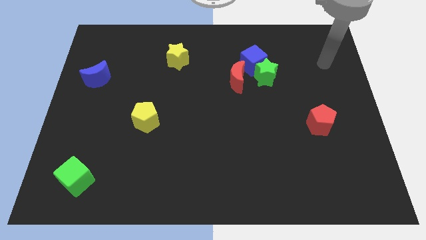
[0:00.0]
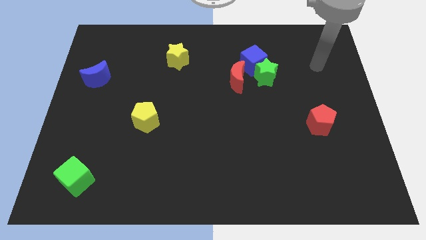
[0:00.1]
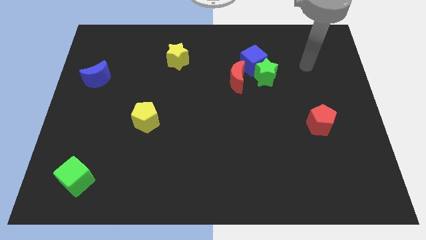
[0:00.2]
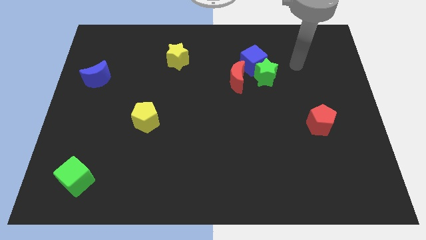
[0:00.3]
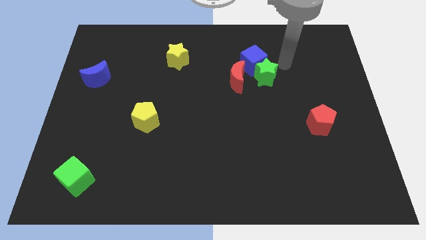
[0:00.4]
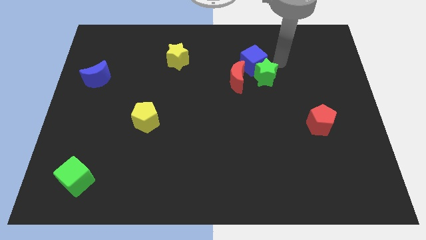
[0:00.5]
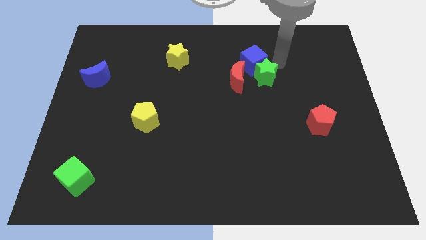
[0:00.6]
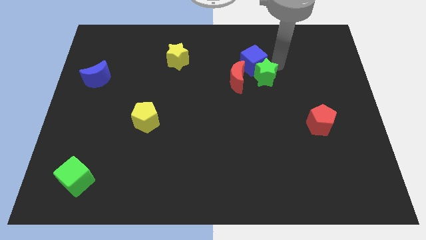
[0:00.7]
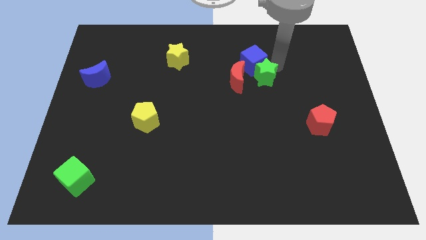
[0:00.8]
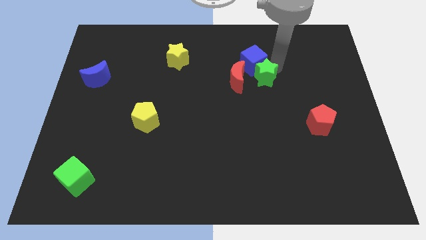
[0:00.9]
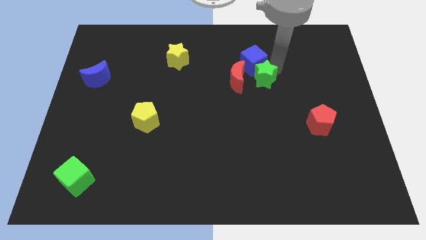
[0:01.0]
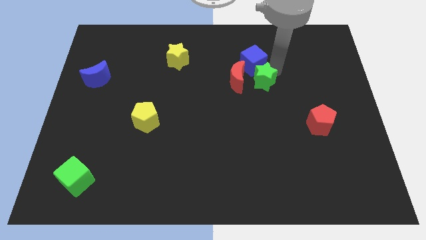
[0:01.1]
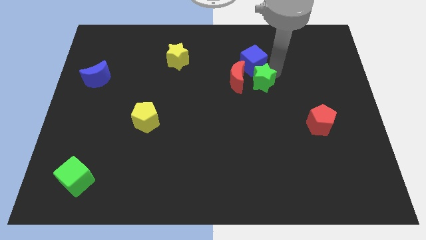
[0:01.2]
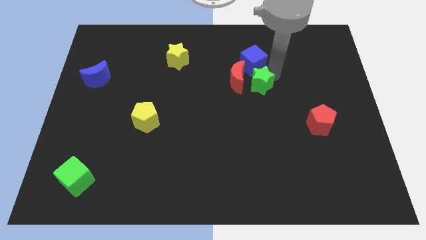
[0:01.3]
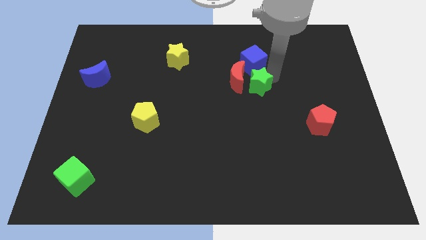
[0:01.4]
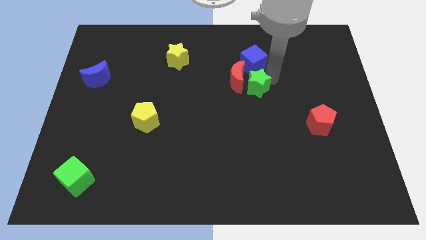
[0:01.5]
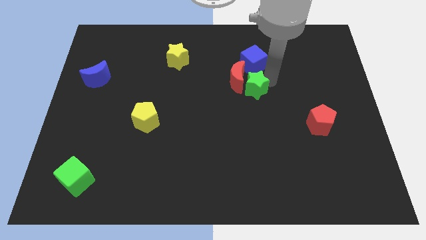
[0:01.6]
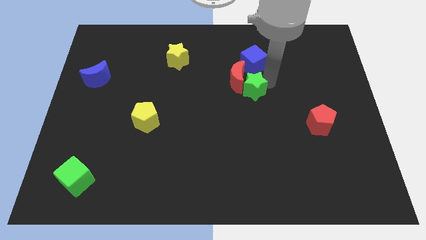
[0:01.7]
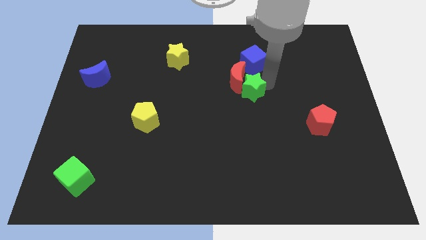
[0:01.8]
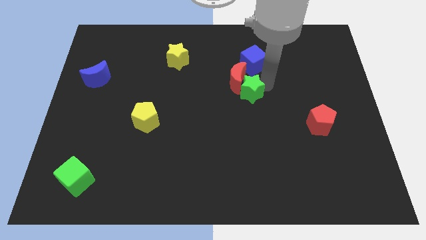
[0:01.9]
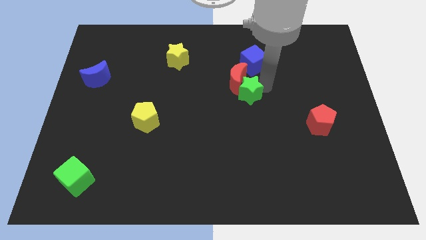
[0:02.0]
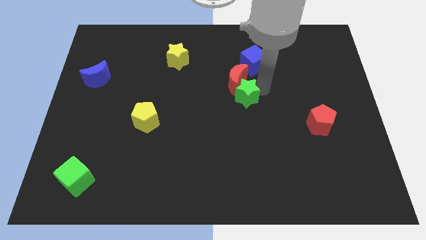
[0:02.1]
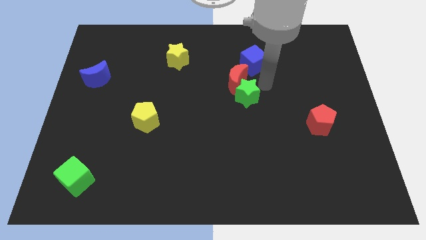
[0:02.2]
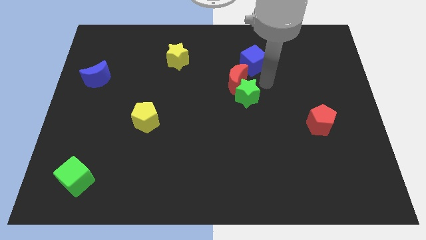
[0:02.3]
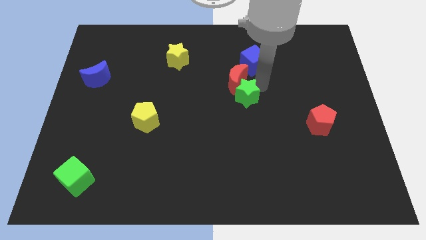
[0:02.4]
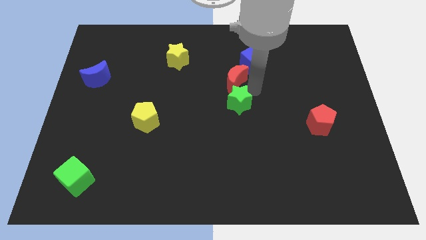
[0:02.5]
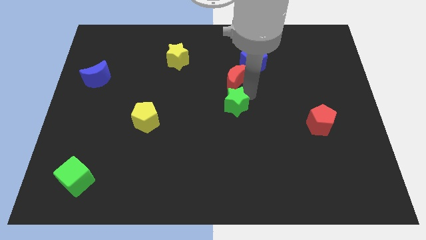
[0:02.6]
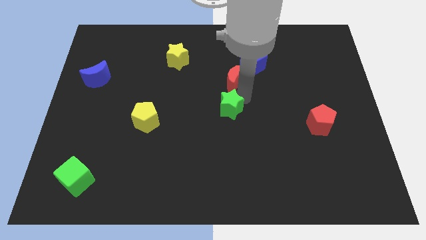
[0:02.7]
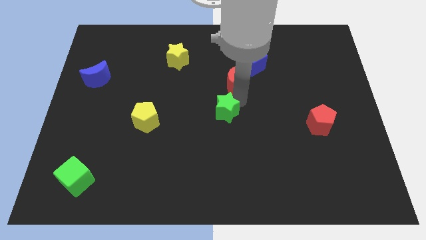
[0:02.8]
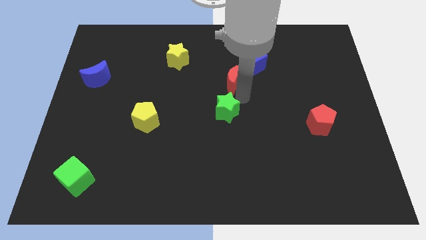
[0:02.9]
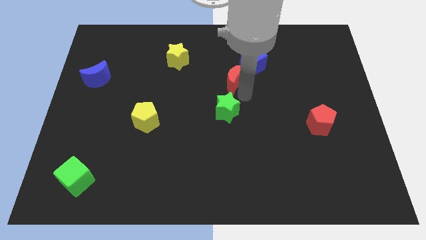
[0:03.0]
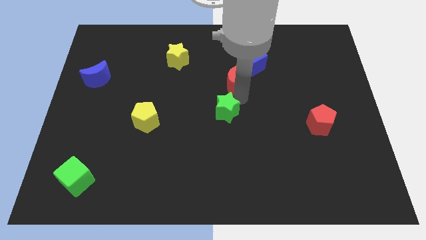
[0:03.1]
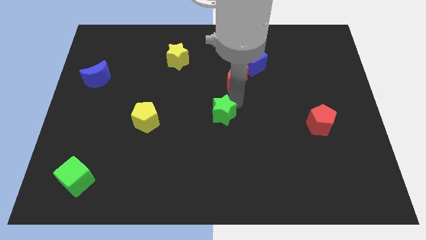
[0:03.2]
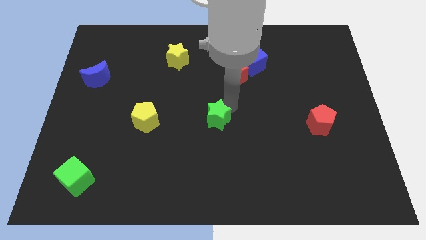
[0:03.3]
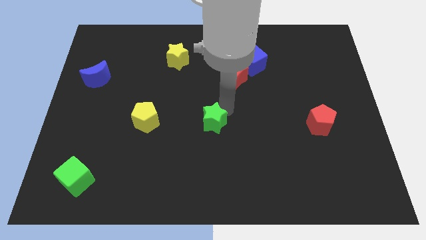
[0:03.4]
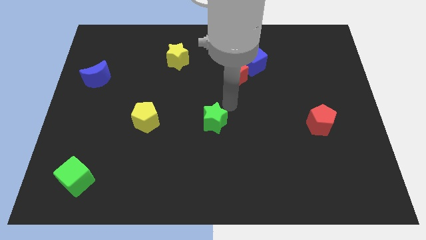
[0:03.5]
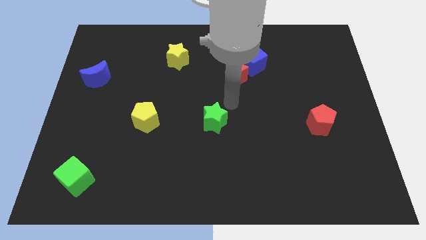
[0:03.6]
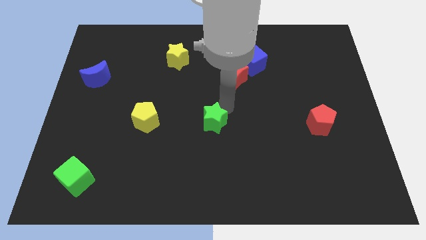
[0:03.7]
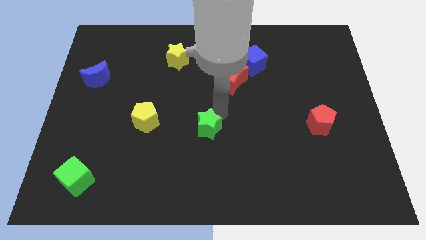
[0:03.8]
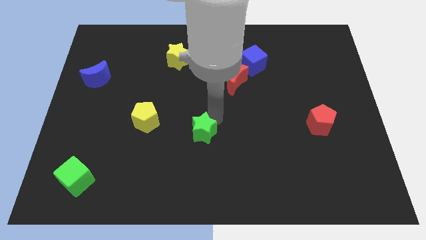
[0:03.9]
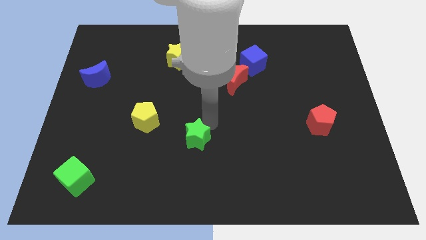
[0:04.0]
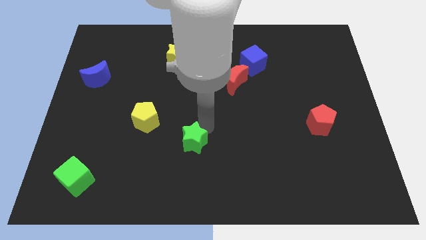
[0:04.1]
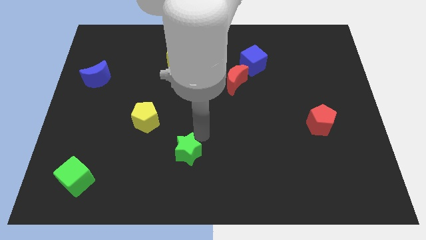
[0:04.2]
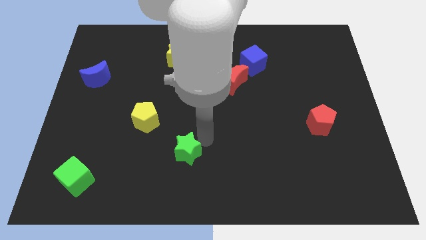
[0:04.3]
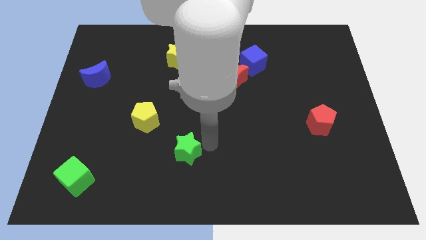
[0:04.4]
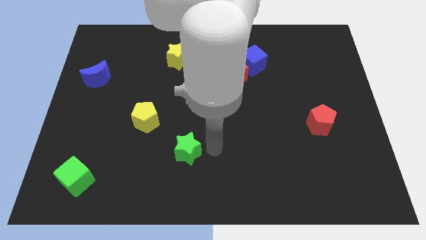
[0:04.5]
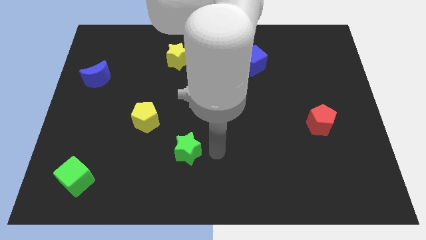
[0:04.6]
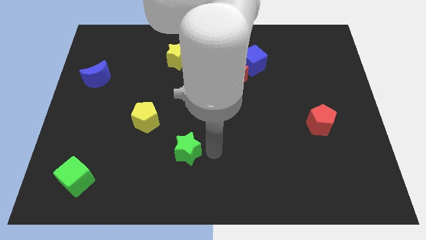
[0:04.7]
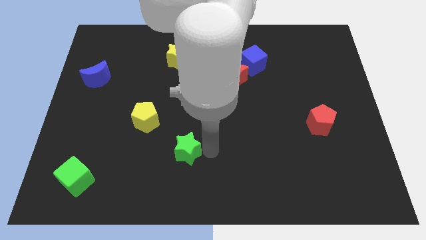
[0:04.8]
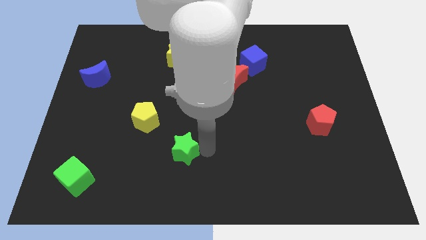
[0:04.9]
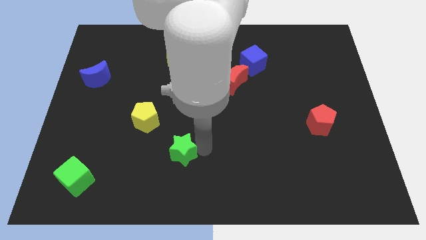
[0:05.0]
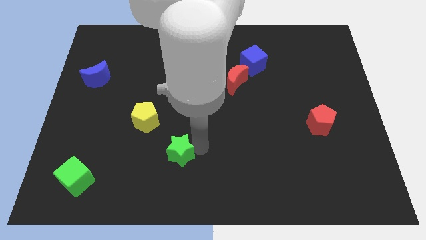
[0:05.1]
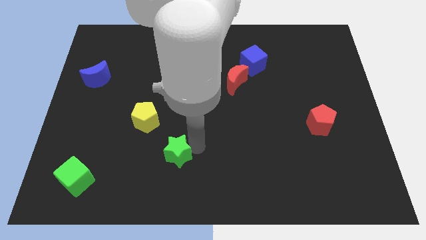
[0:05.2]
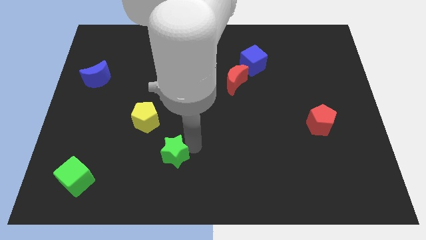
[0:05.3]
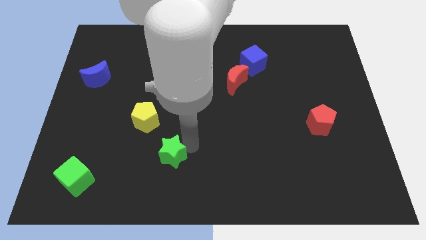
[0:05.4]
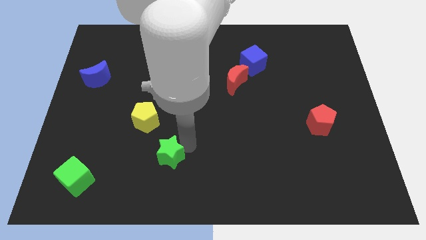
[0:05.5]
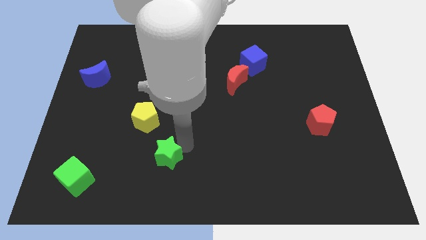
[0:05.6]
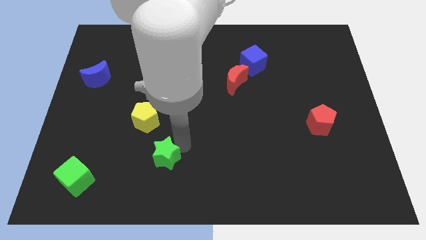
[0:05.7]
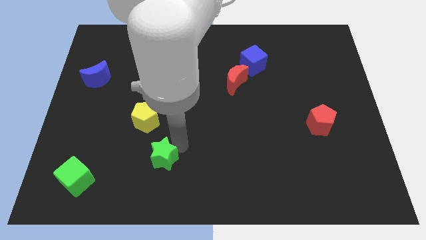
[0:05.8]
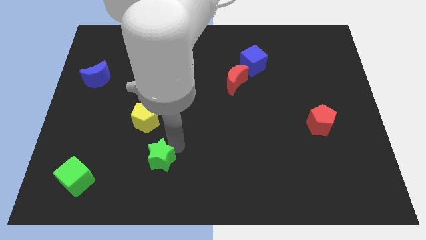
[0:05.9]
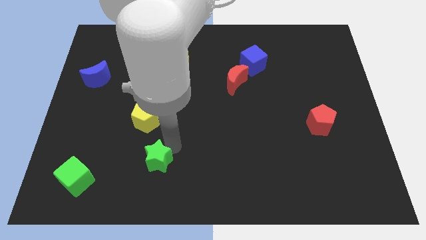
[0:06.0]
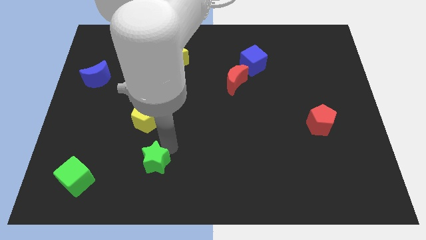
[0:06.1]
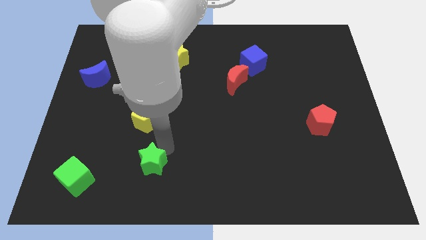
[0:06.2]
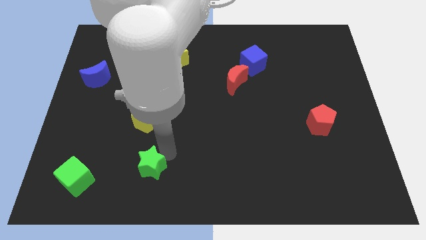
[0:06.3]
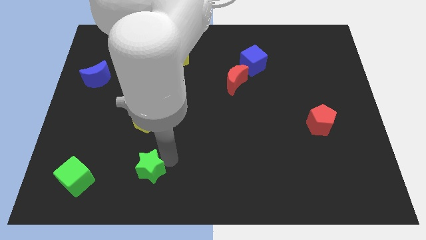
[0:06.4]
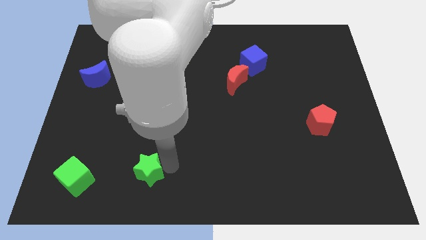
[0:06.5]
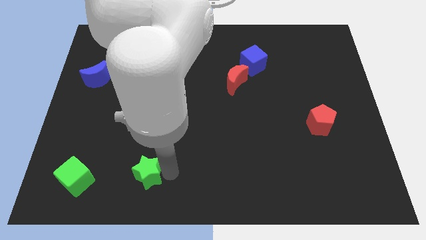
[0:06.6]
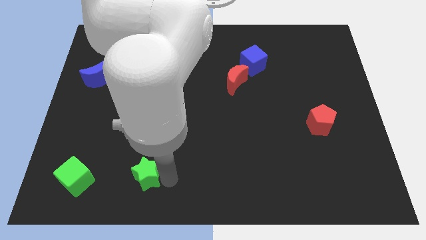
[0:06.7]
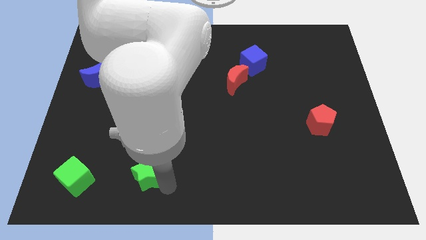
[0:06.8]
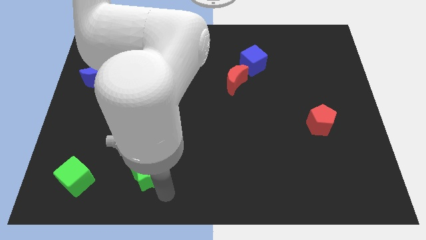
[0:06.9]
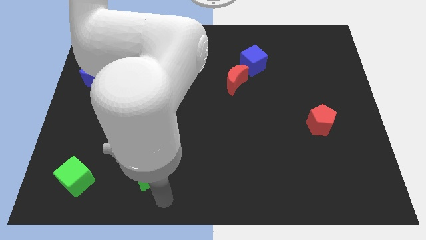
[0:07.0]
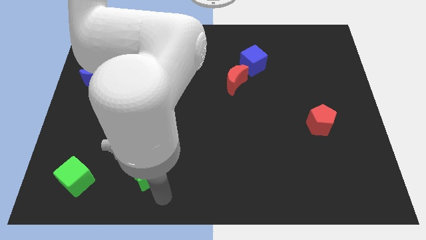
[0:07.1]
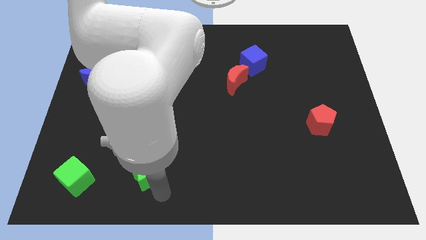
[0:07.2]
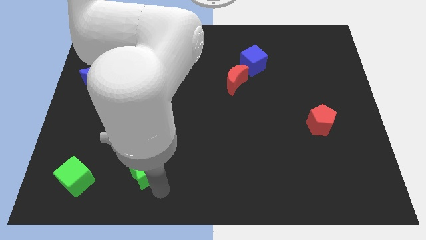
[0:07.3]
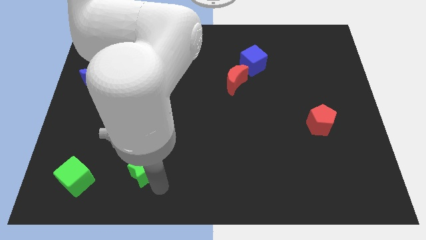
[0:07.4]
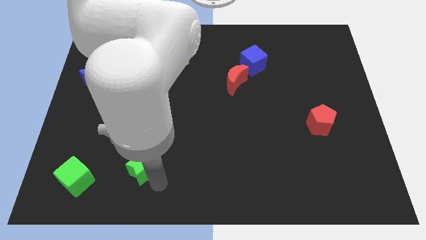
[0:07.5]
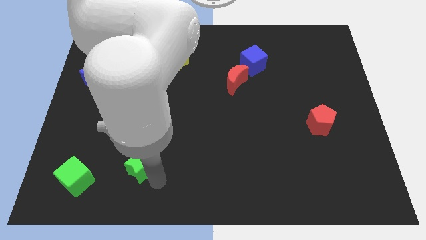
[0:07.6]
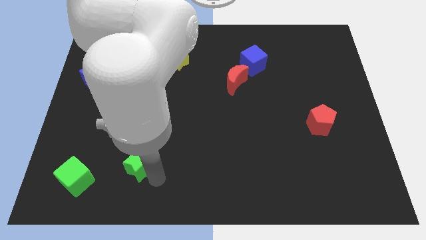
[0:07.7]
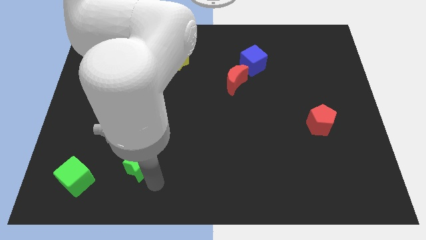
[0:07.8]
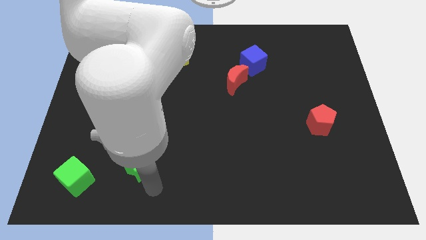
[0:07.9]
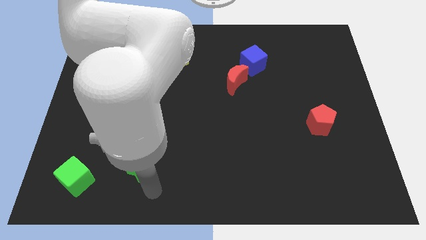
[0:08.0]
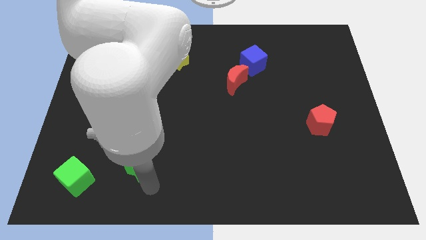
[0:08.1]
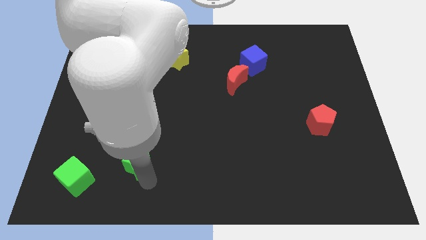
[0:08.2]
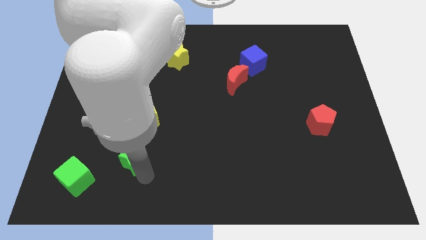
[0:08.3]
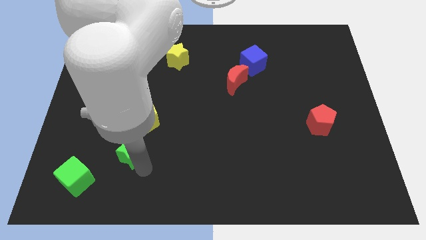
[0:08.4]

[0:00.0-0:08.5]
slide the green star to the top right side of the green cube
